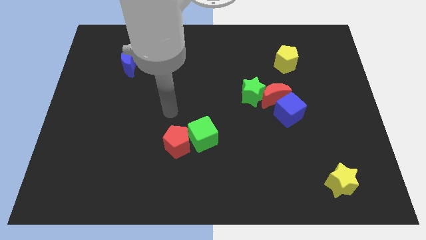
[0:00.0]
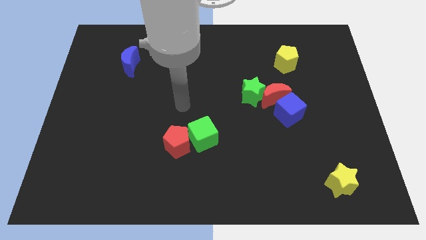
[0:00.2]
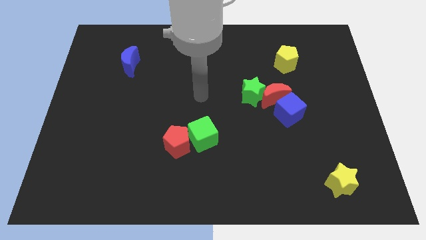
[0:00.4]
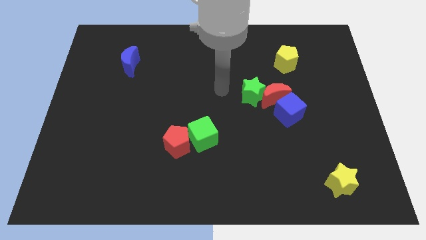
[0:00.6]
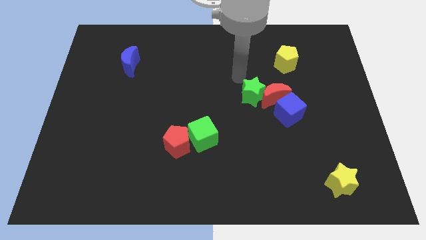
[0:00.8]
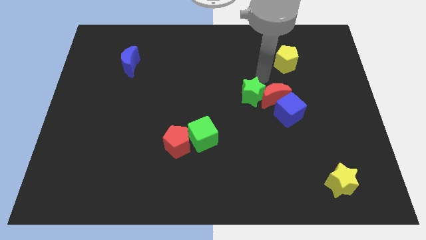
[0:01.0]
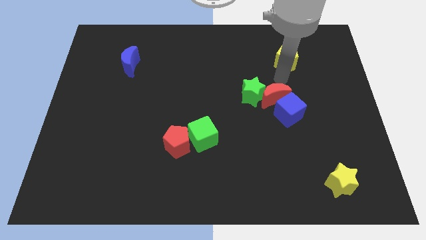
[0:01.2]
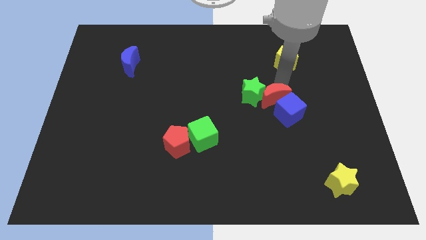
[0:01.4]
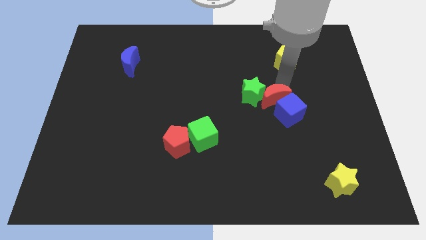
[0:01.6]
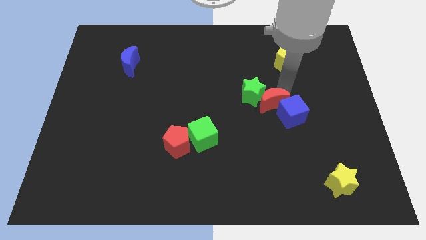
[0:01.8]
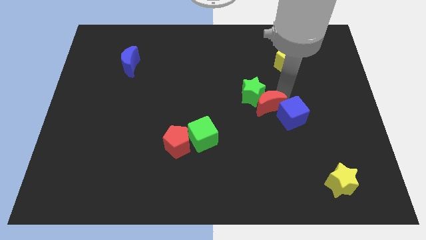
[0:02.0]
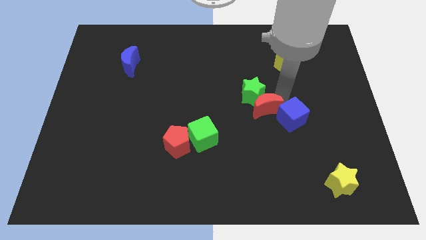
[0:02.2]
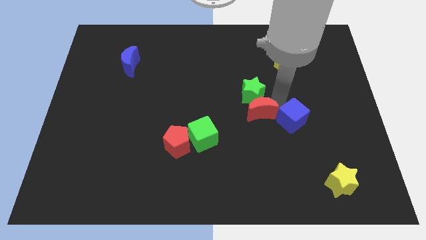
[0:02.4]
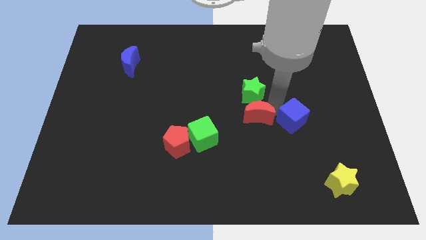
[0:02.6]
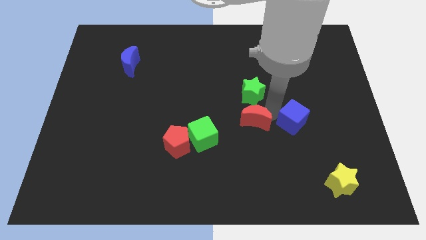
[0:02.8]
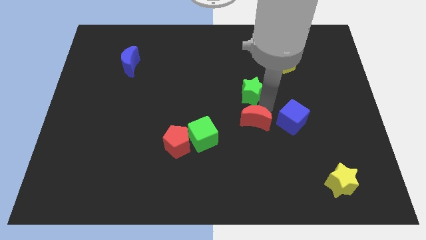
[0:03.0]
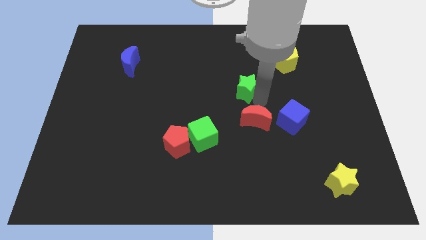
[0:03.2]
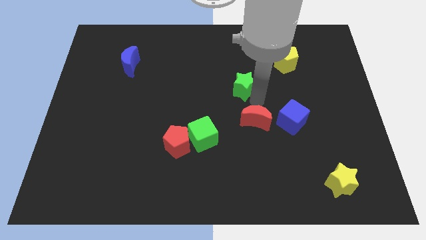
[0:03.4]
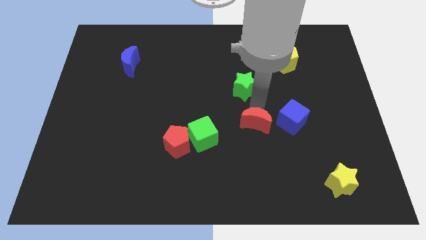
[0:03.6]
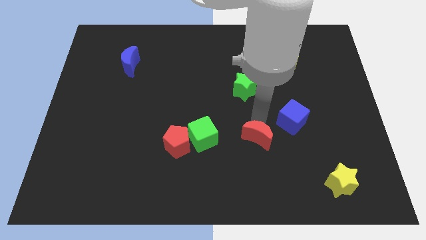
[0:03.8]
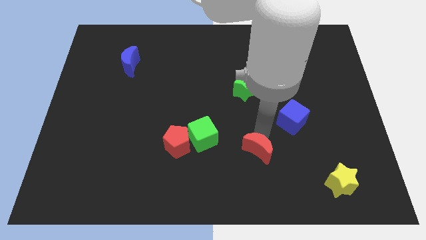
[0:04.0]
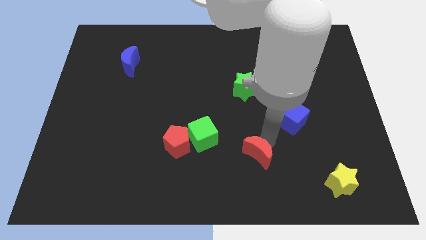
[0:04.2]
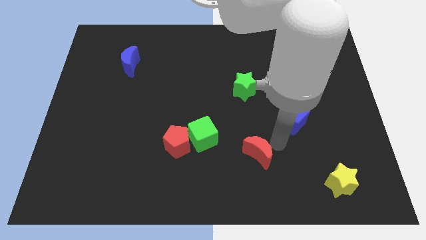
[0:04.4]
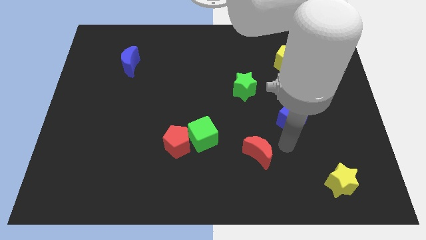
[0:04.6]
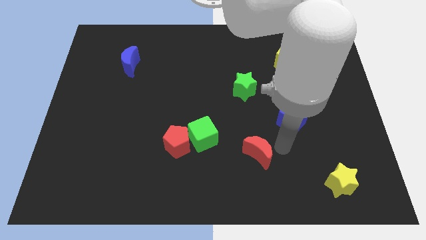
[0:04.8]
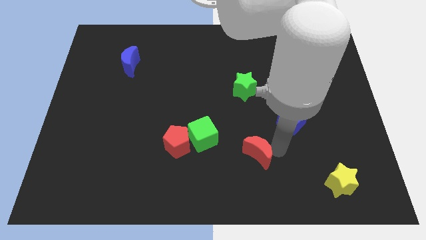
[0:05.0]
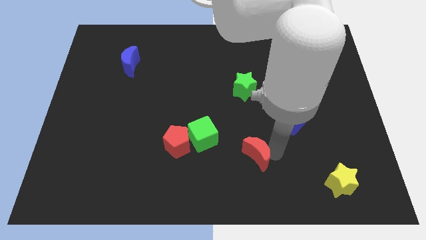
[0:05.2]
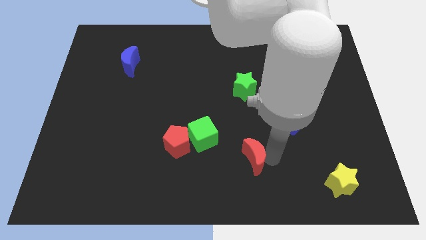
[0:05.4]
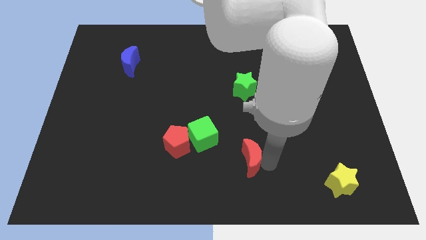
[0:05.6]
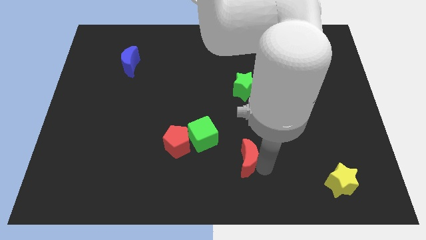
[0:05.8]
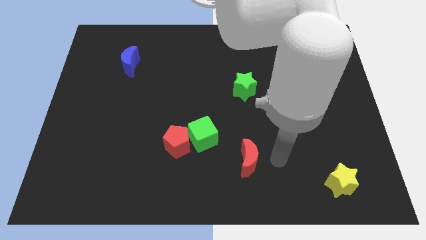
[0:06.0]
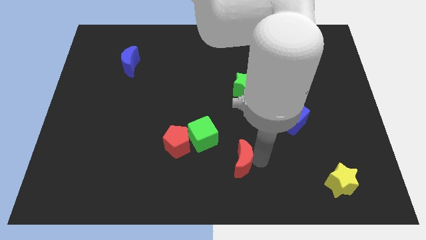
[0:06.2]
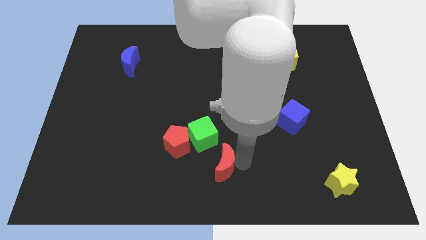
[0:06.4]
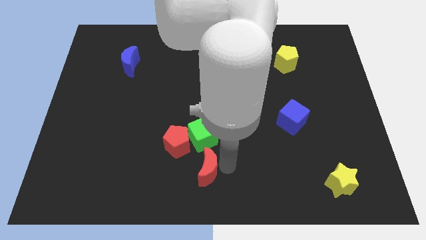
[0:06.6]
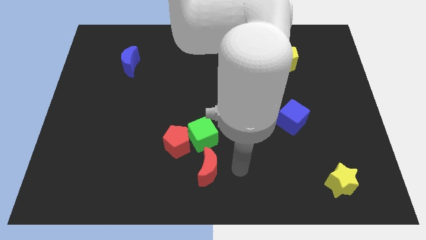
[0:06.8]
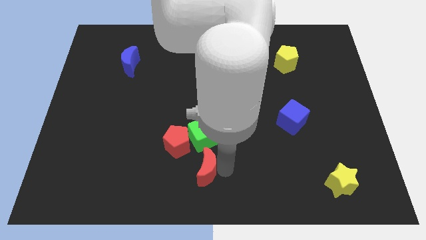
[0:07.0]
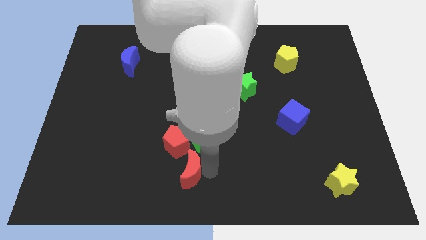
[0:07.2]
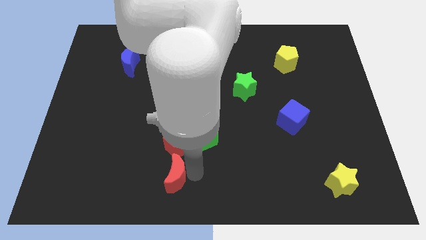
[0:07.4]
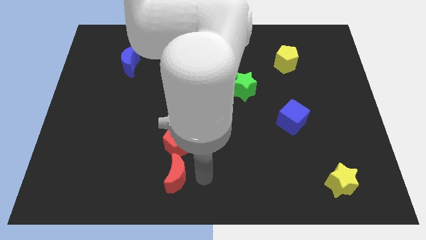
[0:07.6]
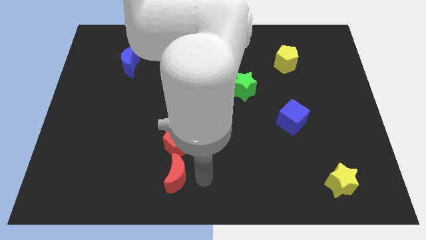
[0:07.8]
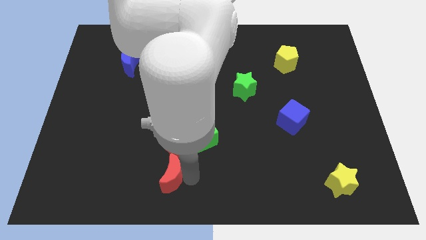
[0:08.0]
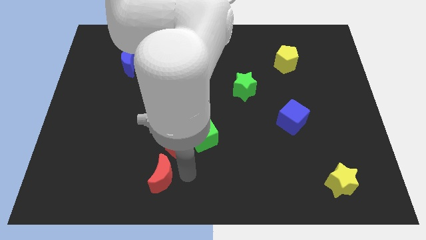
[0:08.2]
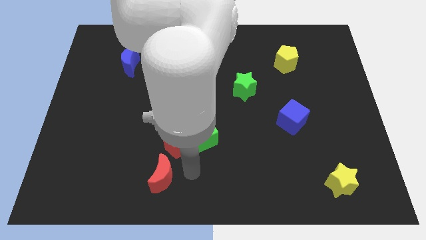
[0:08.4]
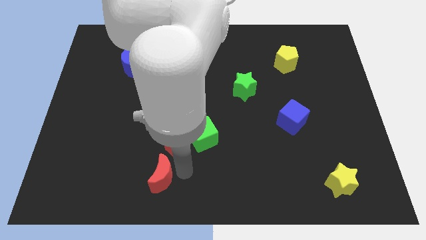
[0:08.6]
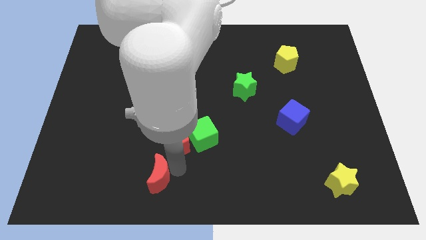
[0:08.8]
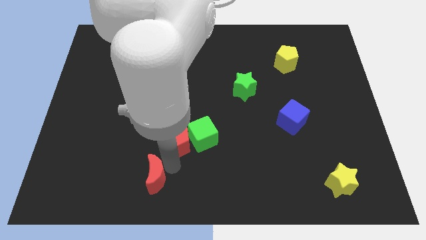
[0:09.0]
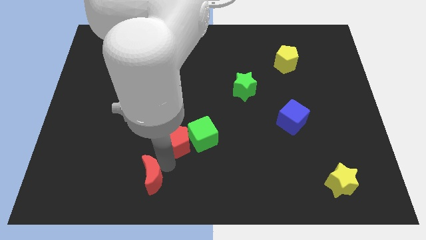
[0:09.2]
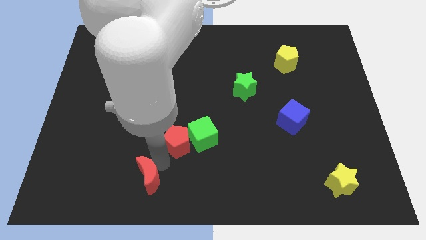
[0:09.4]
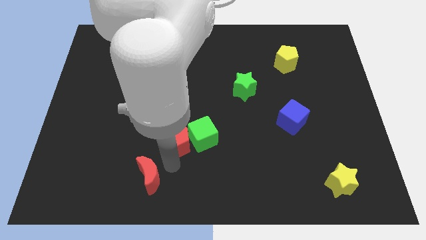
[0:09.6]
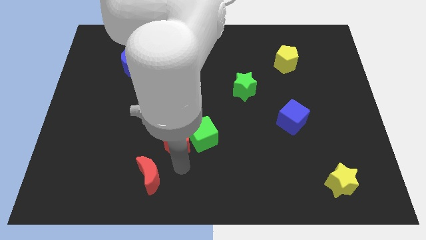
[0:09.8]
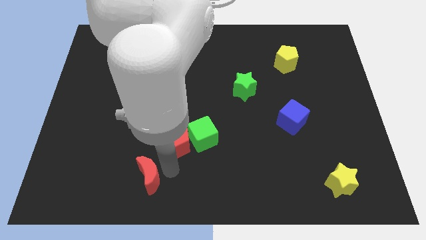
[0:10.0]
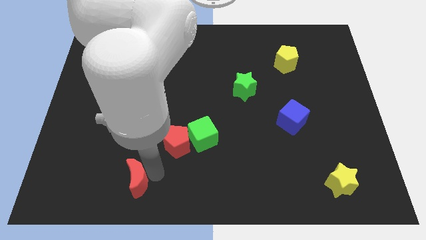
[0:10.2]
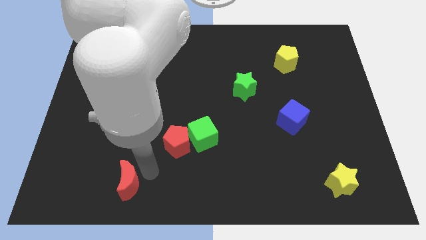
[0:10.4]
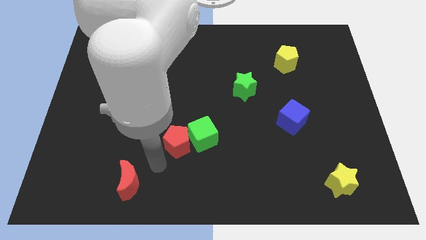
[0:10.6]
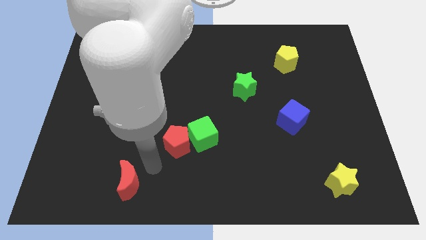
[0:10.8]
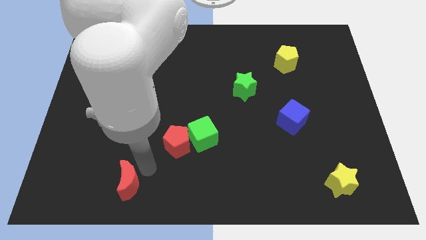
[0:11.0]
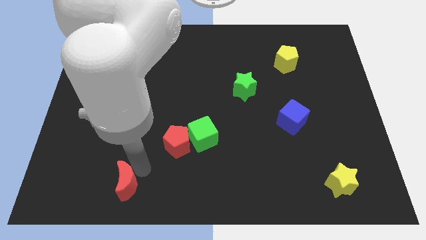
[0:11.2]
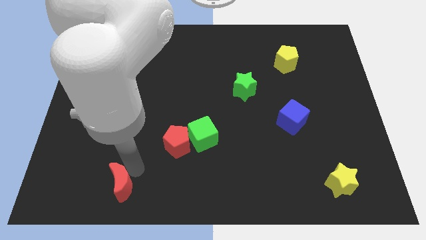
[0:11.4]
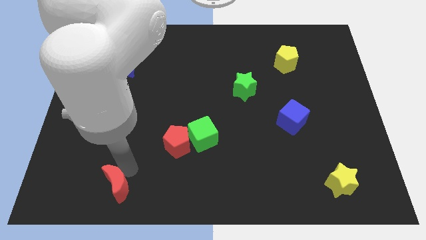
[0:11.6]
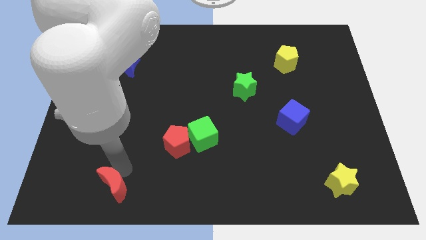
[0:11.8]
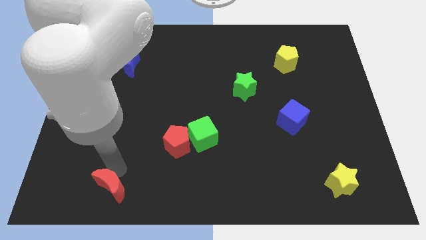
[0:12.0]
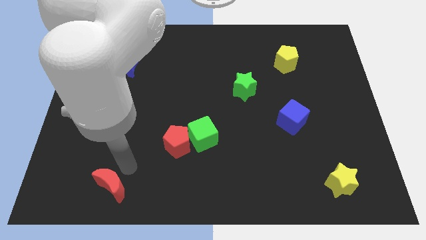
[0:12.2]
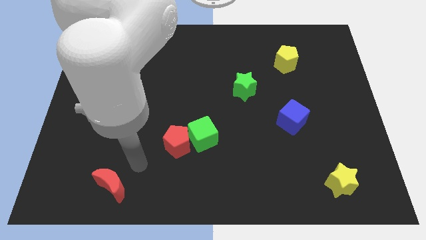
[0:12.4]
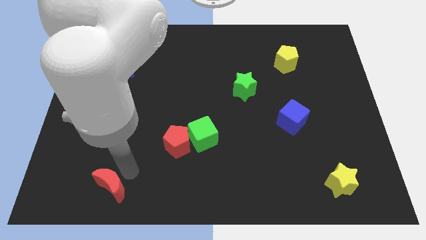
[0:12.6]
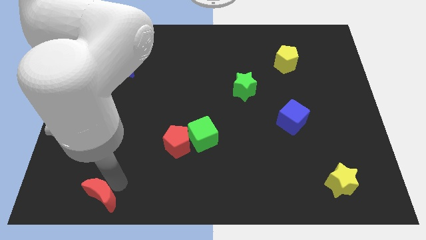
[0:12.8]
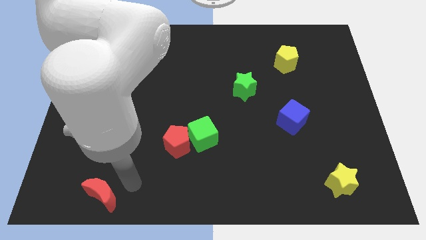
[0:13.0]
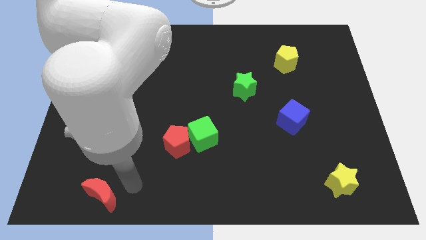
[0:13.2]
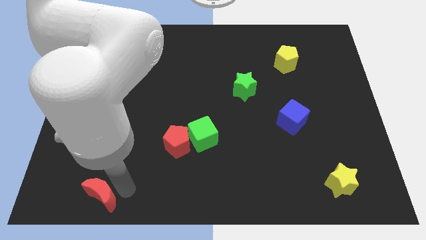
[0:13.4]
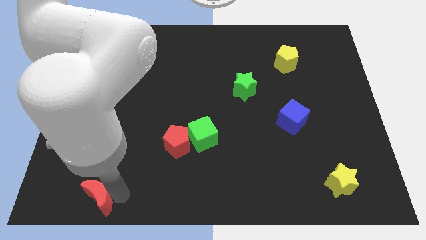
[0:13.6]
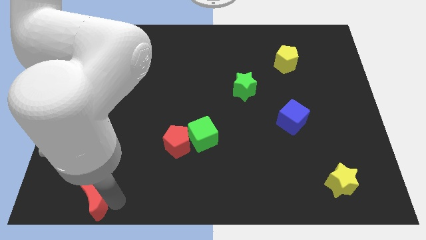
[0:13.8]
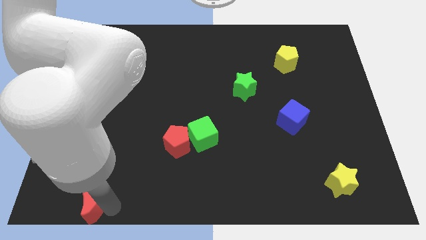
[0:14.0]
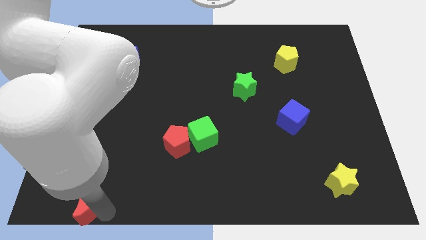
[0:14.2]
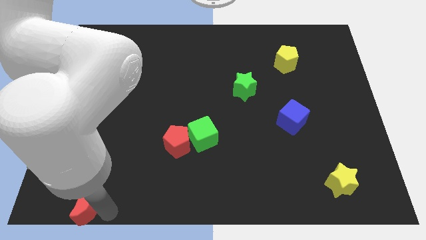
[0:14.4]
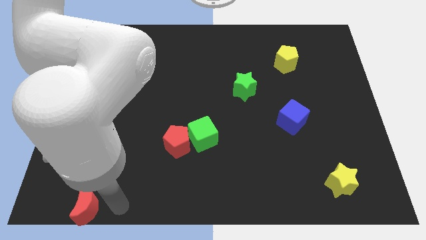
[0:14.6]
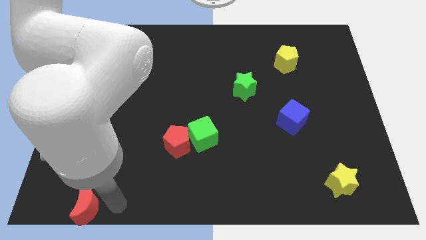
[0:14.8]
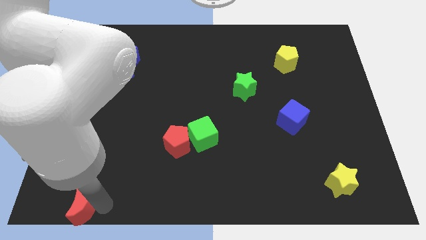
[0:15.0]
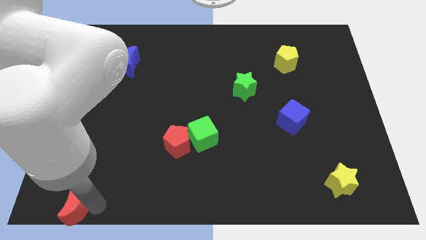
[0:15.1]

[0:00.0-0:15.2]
move the red moon to the bottom left of the board
